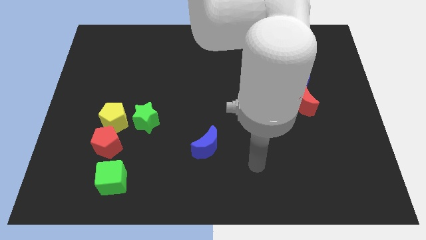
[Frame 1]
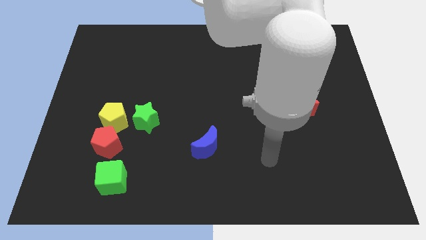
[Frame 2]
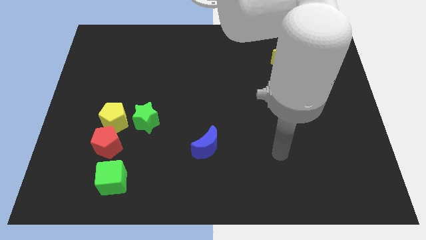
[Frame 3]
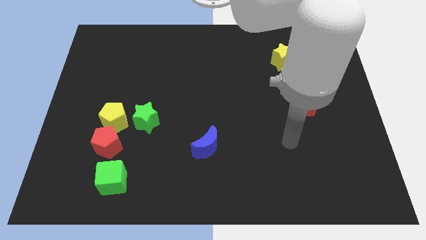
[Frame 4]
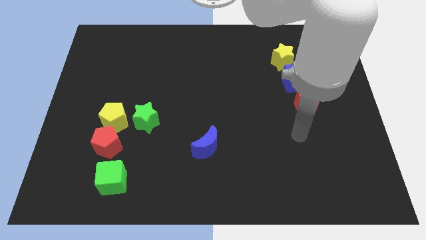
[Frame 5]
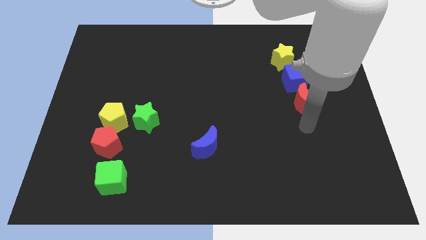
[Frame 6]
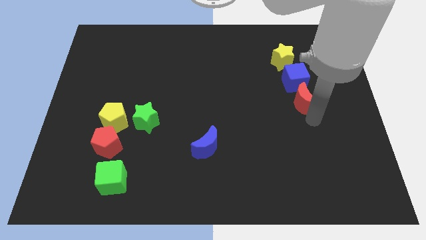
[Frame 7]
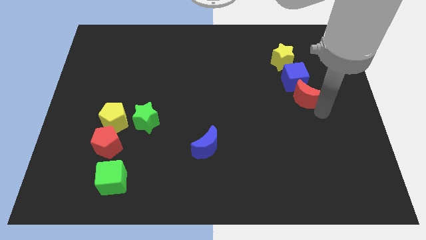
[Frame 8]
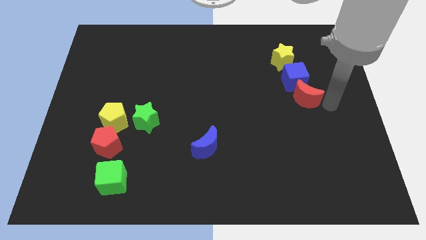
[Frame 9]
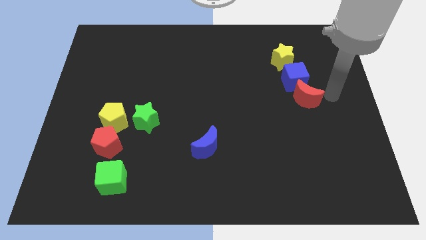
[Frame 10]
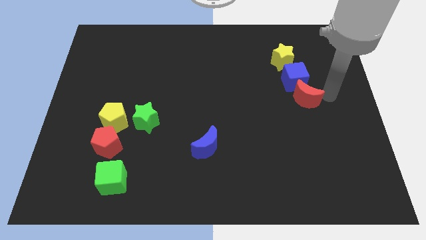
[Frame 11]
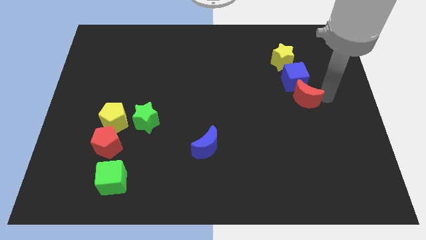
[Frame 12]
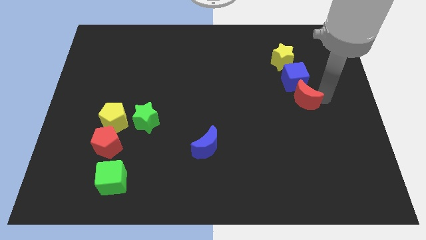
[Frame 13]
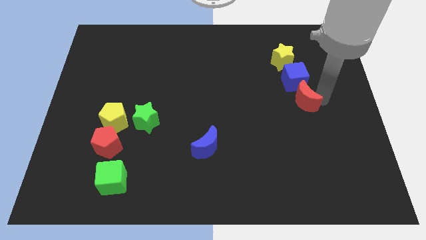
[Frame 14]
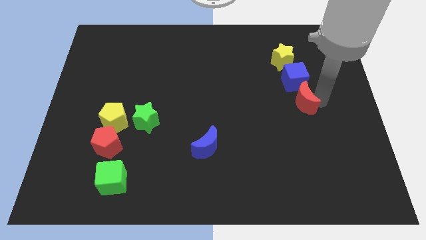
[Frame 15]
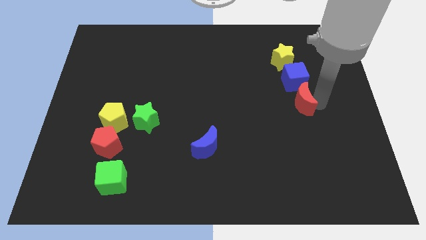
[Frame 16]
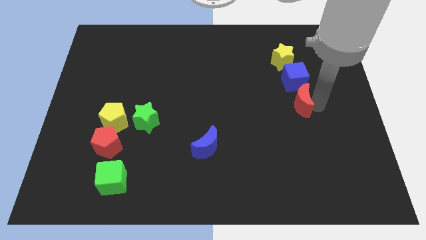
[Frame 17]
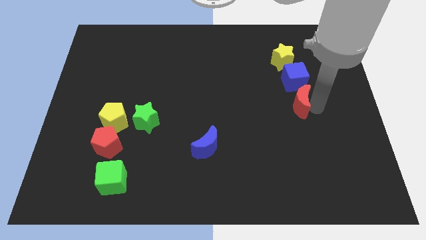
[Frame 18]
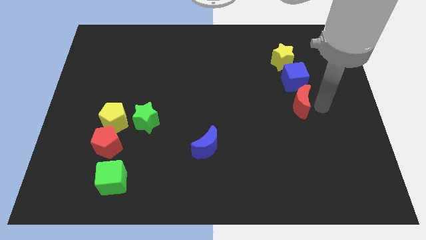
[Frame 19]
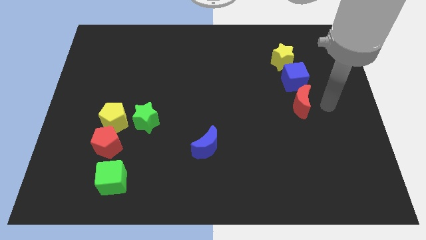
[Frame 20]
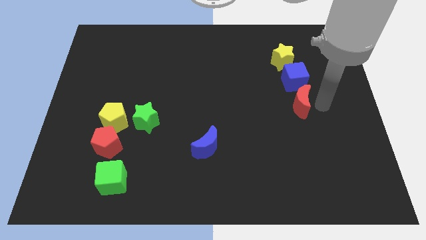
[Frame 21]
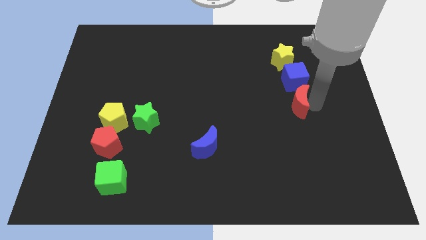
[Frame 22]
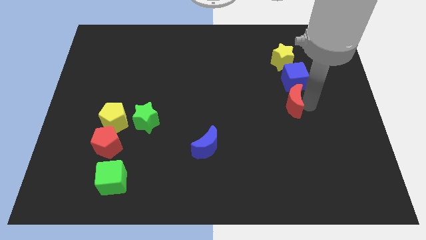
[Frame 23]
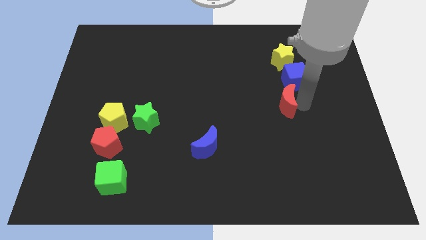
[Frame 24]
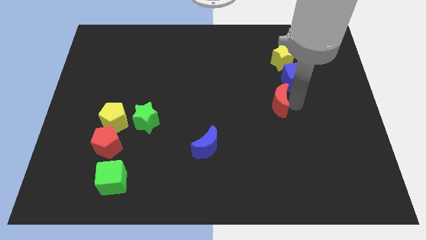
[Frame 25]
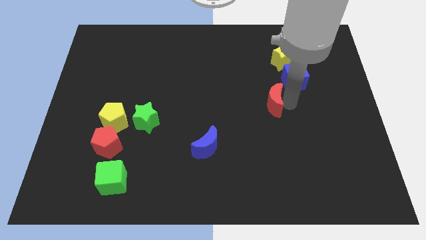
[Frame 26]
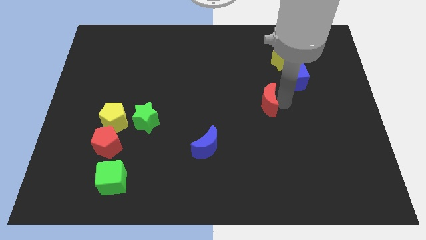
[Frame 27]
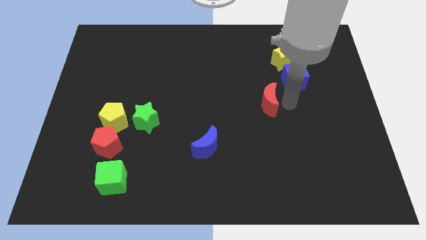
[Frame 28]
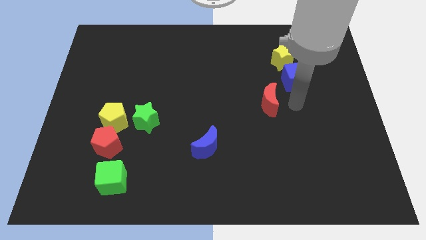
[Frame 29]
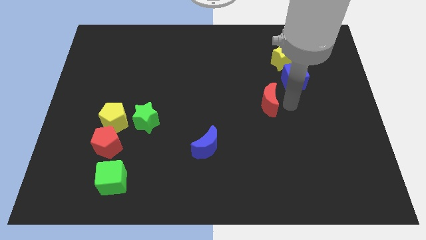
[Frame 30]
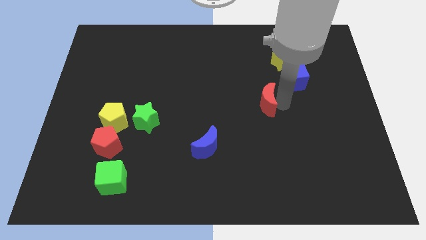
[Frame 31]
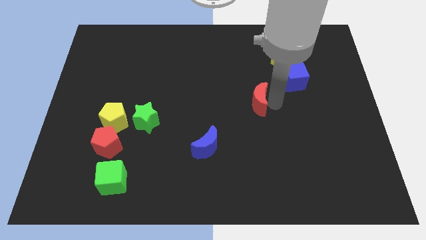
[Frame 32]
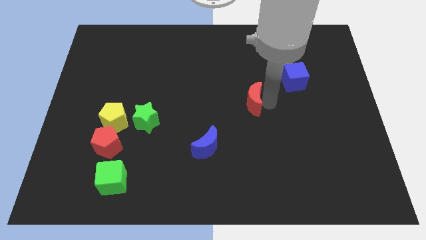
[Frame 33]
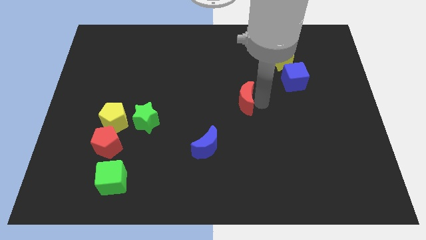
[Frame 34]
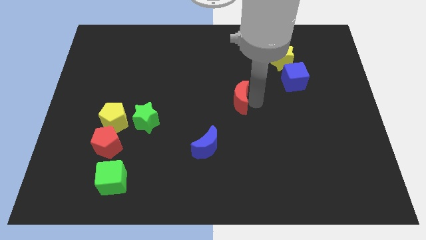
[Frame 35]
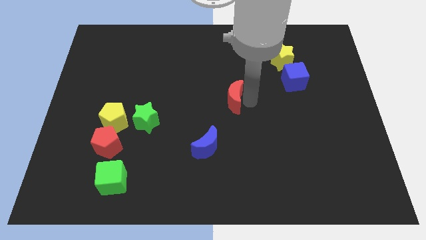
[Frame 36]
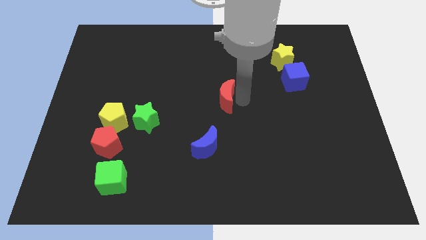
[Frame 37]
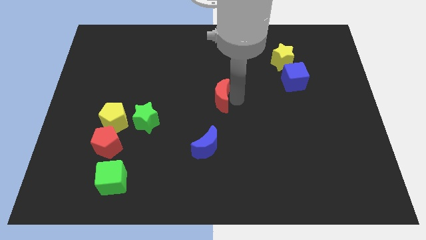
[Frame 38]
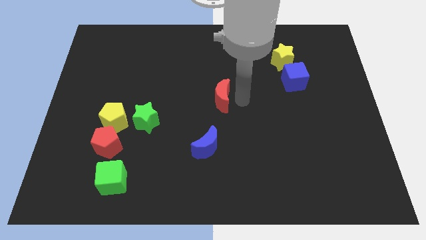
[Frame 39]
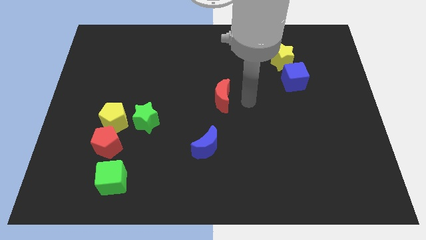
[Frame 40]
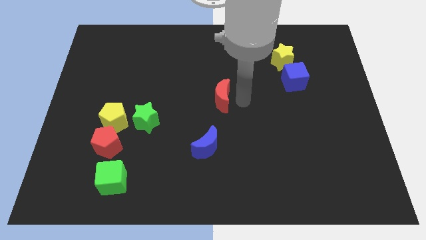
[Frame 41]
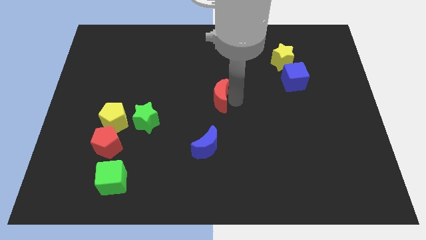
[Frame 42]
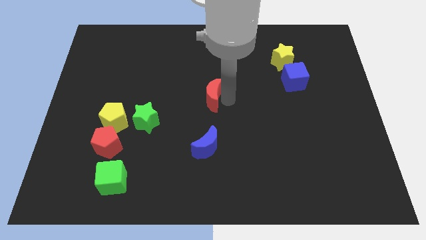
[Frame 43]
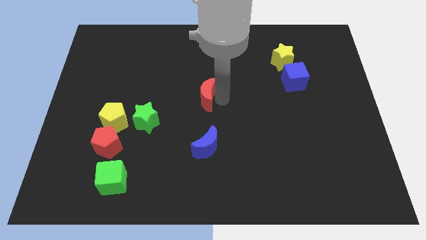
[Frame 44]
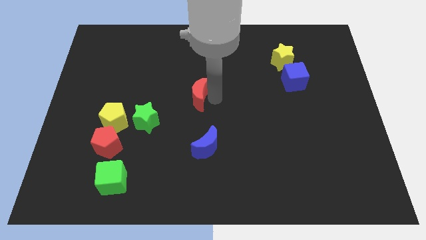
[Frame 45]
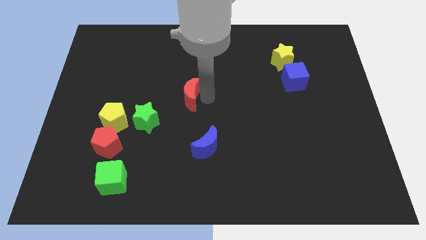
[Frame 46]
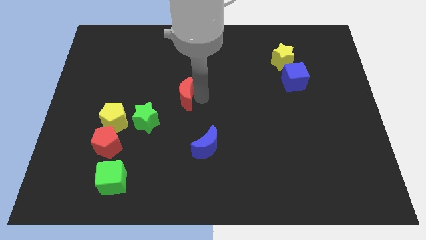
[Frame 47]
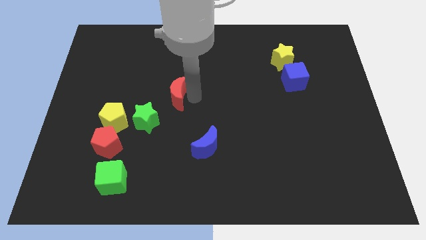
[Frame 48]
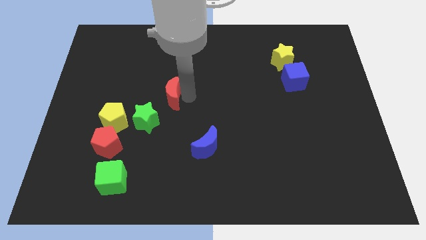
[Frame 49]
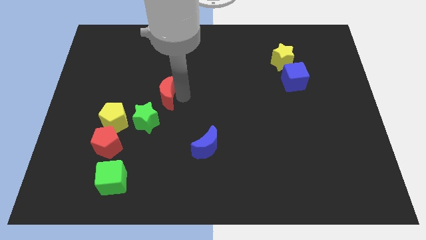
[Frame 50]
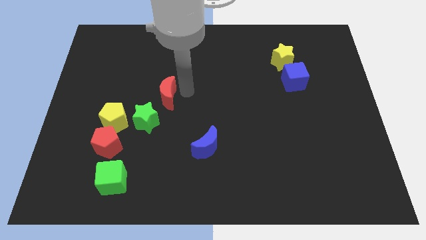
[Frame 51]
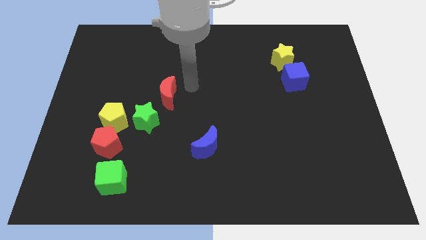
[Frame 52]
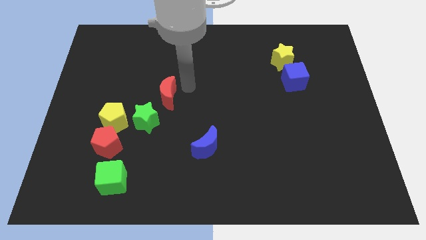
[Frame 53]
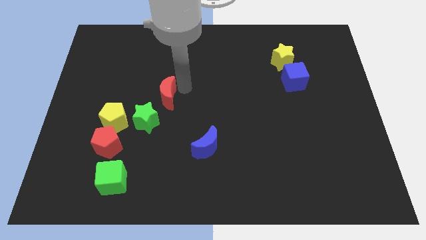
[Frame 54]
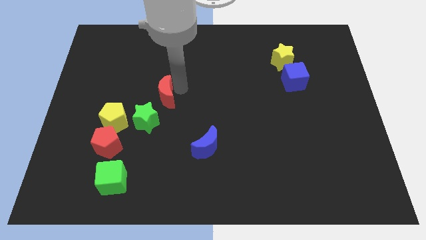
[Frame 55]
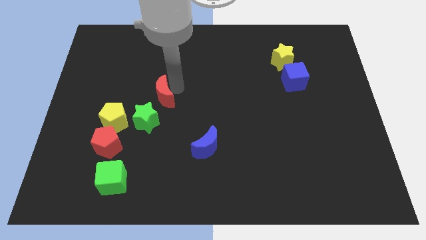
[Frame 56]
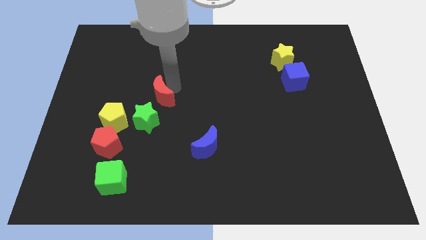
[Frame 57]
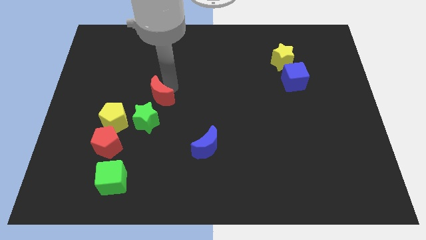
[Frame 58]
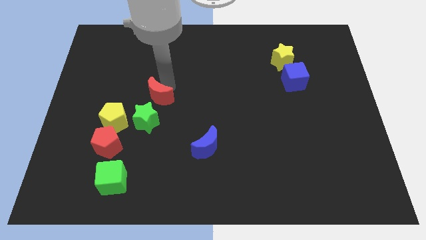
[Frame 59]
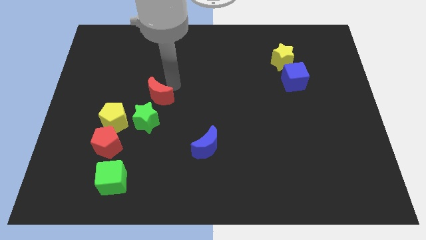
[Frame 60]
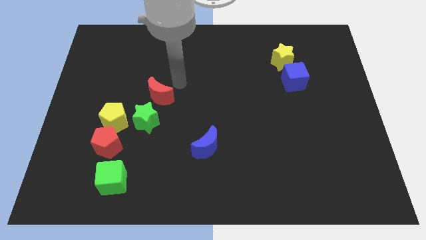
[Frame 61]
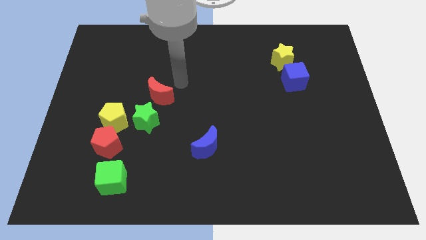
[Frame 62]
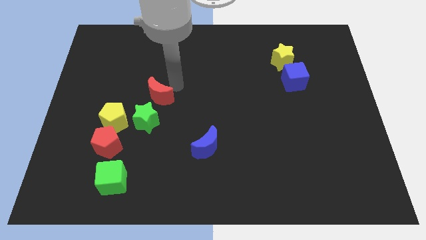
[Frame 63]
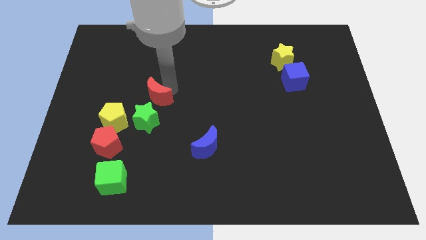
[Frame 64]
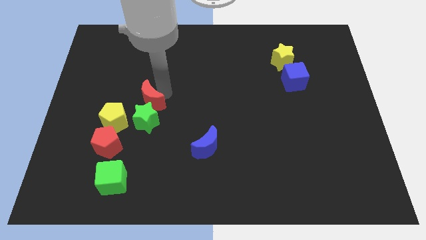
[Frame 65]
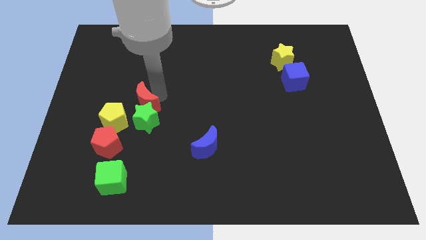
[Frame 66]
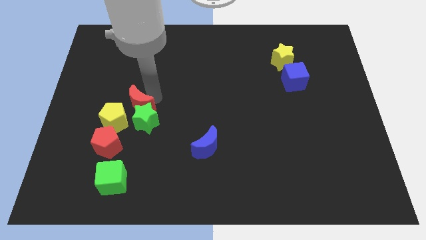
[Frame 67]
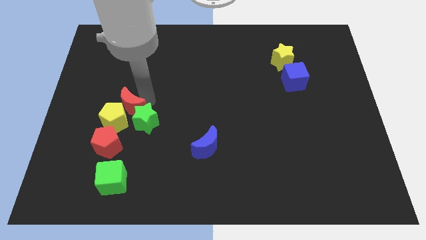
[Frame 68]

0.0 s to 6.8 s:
put the red moon next to the yellow pentagon
